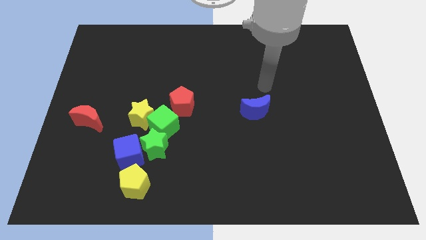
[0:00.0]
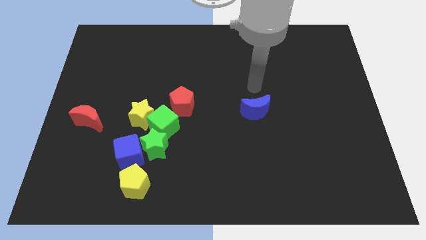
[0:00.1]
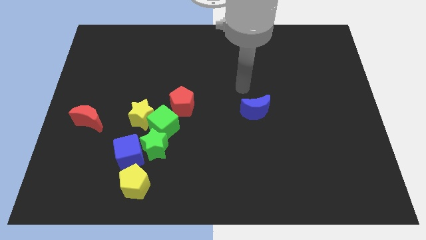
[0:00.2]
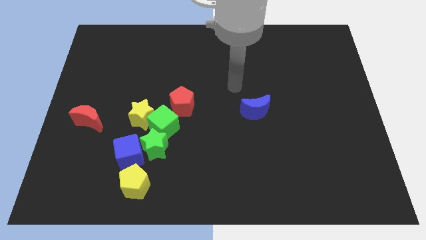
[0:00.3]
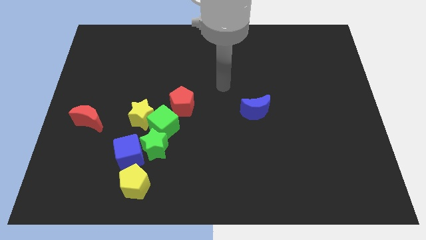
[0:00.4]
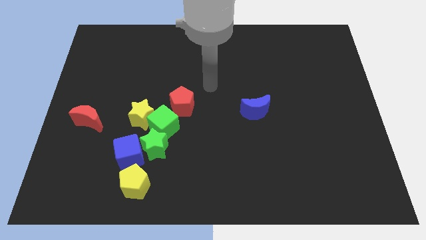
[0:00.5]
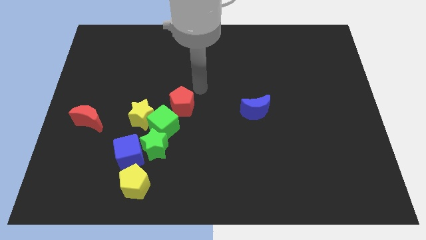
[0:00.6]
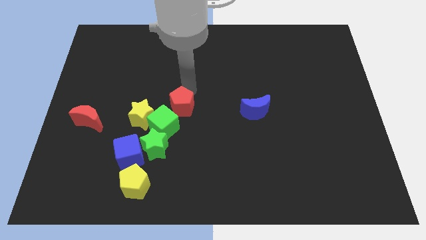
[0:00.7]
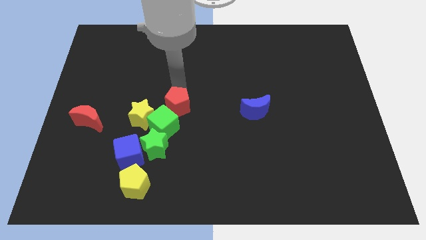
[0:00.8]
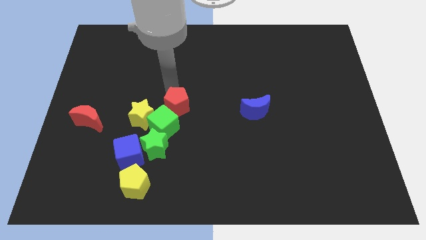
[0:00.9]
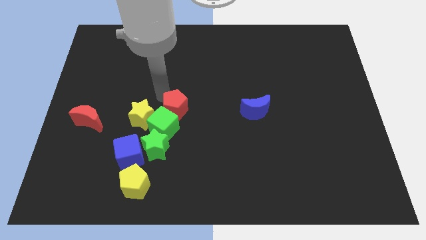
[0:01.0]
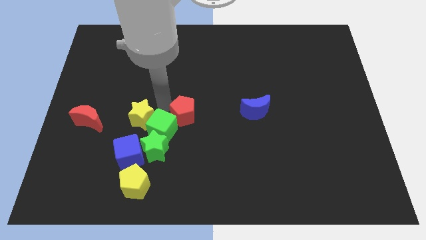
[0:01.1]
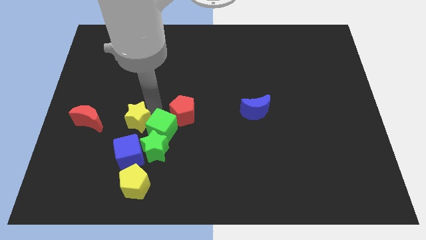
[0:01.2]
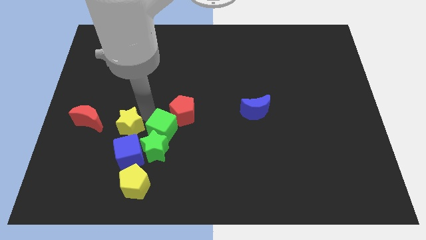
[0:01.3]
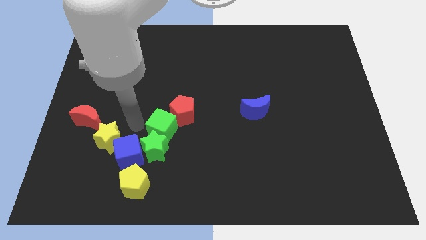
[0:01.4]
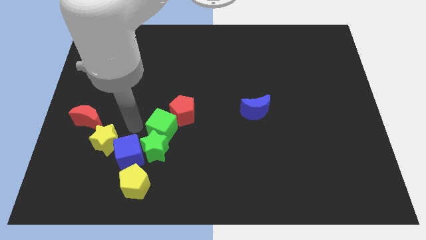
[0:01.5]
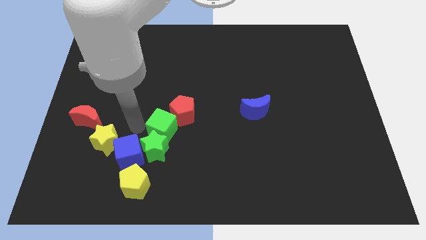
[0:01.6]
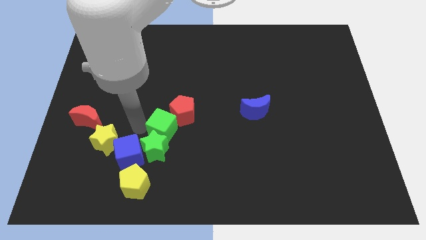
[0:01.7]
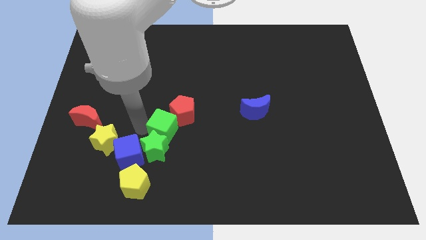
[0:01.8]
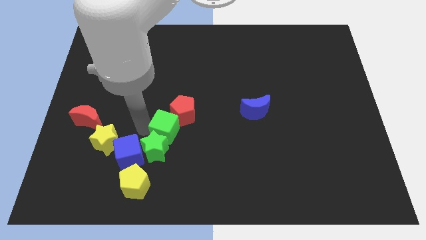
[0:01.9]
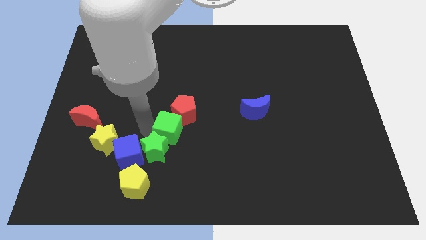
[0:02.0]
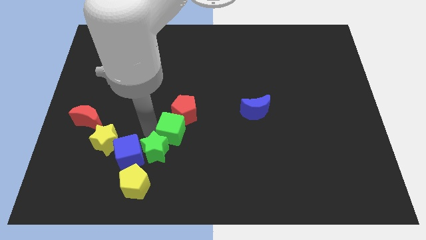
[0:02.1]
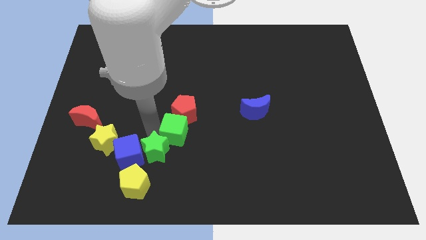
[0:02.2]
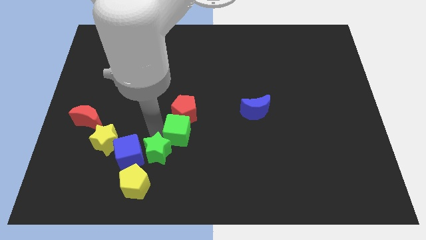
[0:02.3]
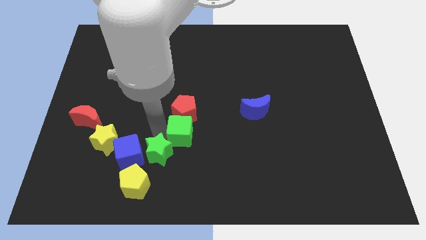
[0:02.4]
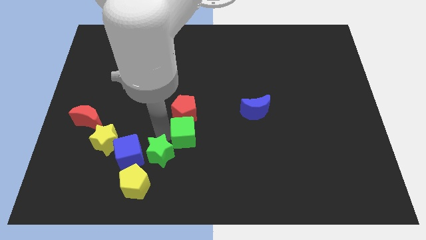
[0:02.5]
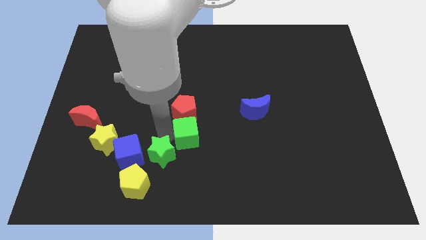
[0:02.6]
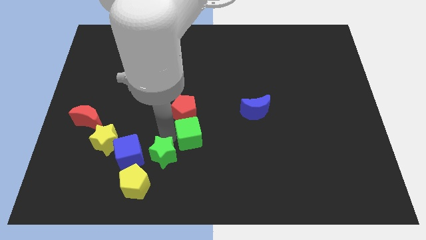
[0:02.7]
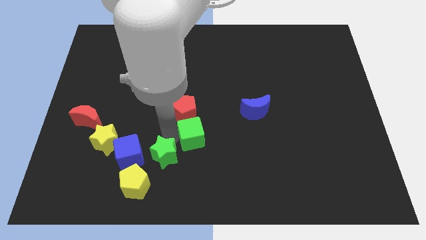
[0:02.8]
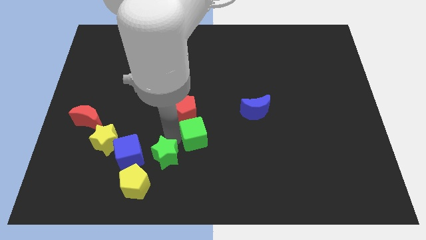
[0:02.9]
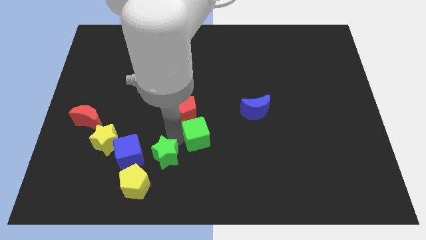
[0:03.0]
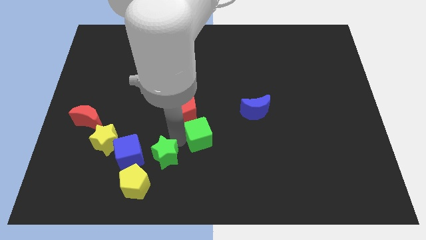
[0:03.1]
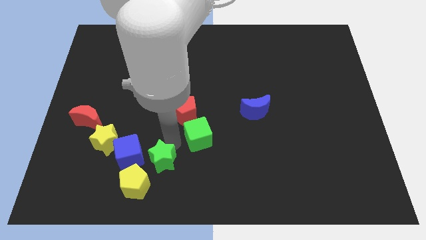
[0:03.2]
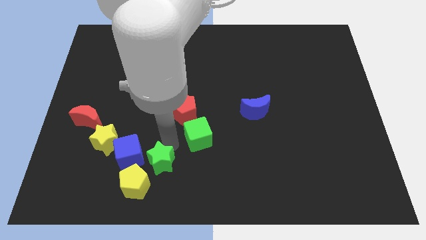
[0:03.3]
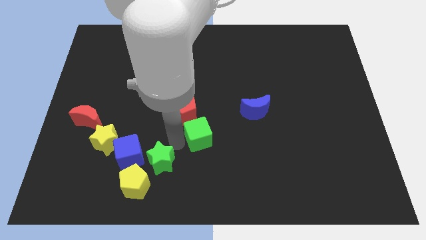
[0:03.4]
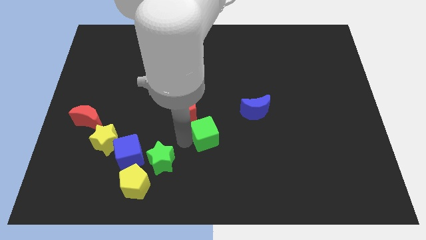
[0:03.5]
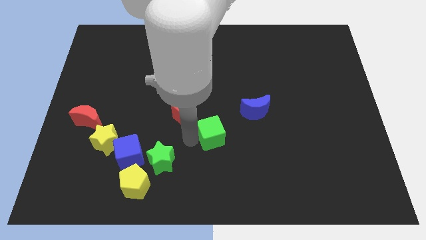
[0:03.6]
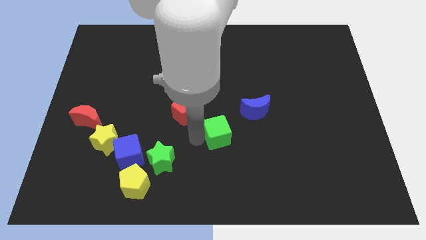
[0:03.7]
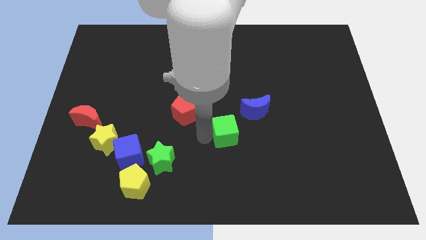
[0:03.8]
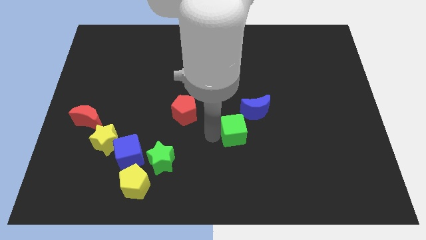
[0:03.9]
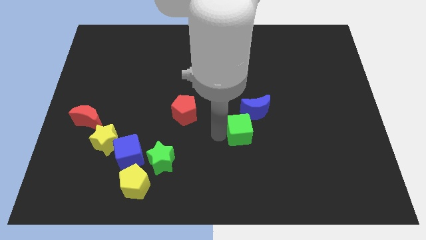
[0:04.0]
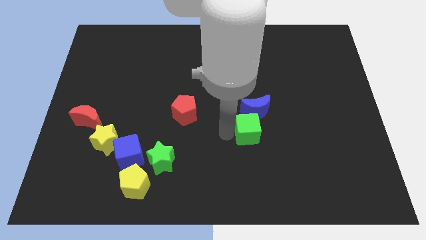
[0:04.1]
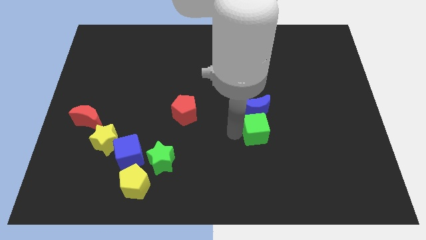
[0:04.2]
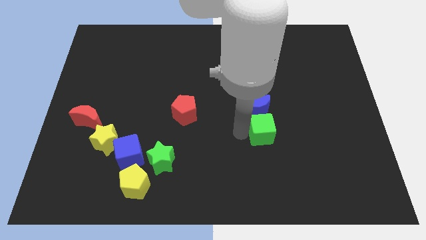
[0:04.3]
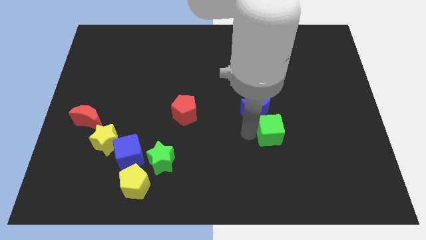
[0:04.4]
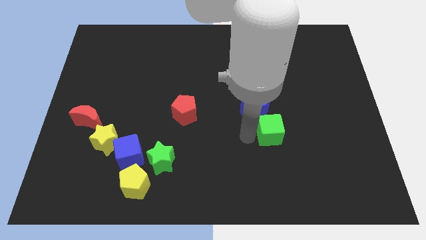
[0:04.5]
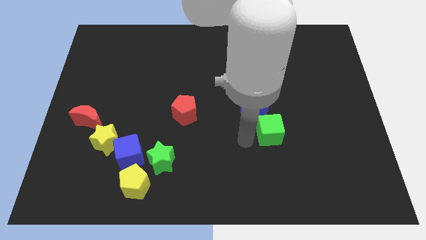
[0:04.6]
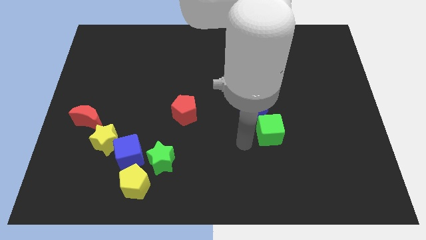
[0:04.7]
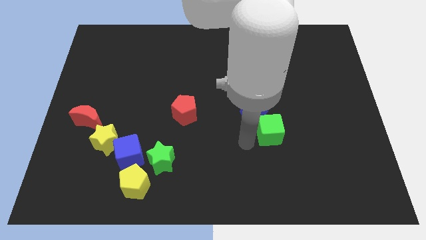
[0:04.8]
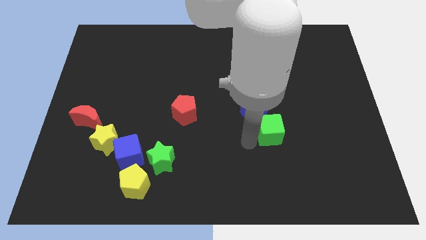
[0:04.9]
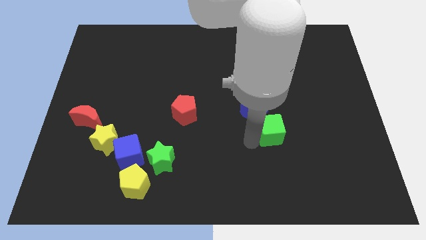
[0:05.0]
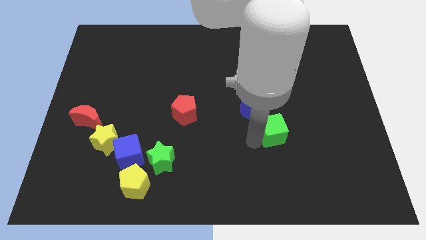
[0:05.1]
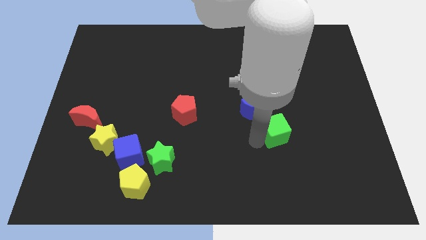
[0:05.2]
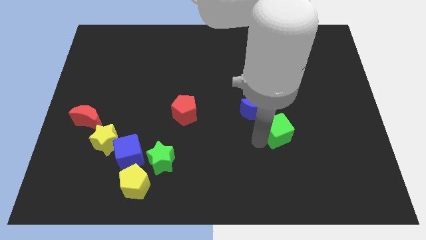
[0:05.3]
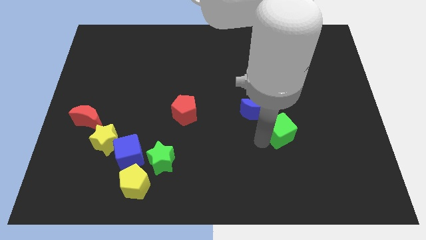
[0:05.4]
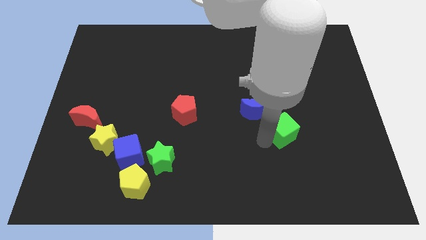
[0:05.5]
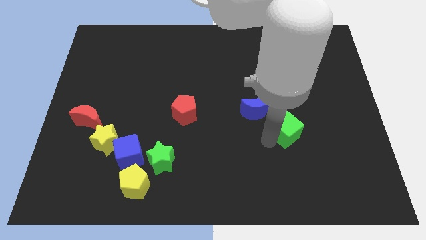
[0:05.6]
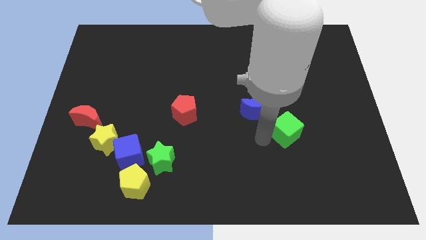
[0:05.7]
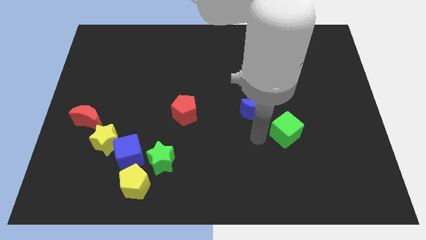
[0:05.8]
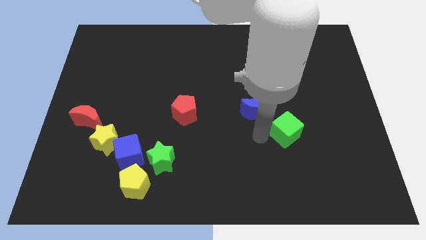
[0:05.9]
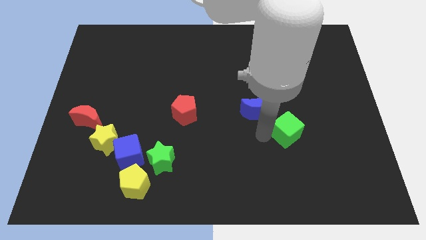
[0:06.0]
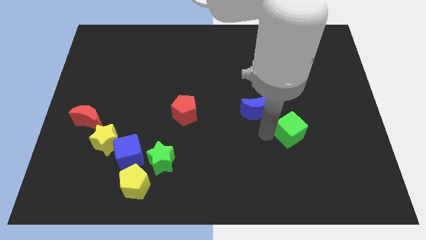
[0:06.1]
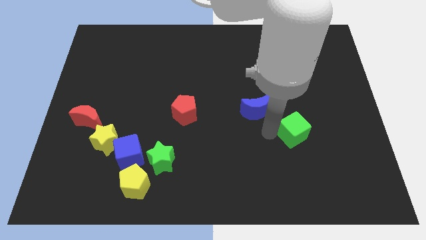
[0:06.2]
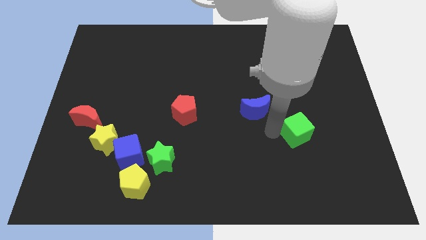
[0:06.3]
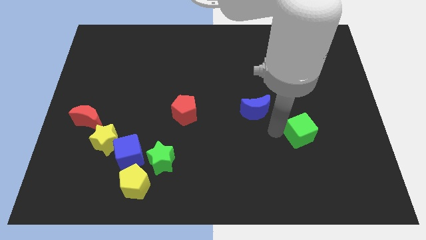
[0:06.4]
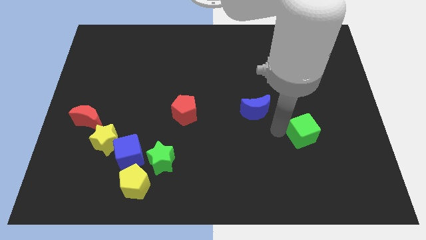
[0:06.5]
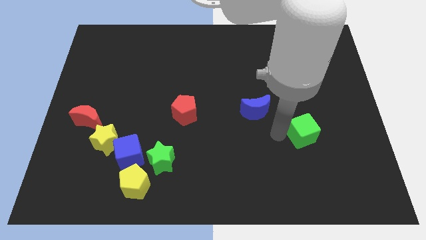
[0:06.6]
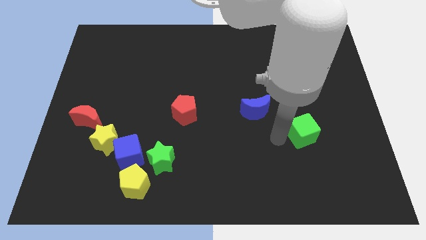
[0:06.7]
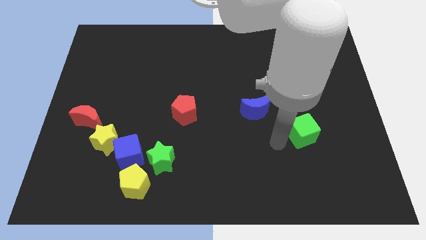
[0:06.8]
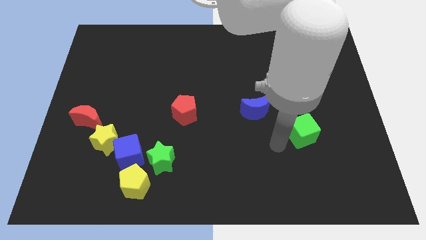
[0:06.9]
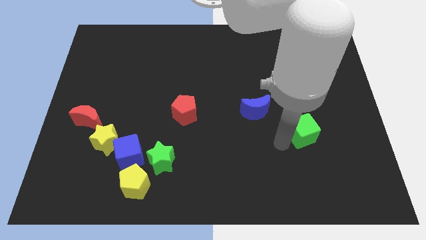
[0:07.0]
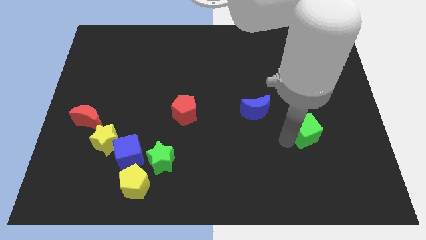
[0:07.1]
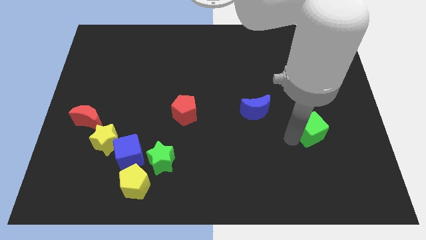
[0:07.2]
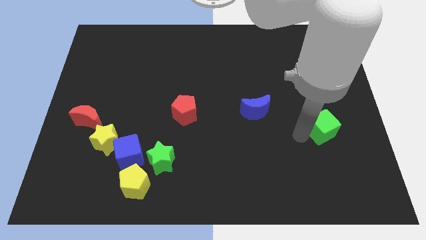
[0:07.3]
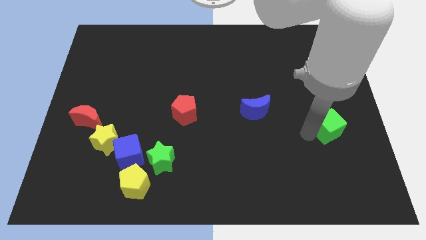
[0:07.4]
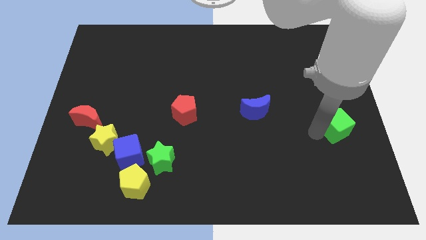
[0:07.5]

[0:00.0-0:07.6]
put the green cube to the right side of the board
